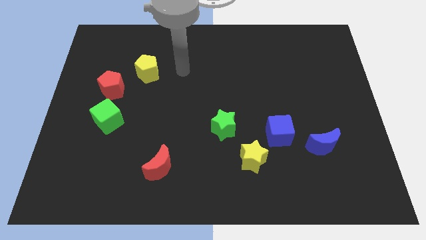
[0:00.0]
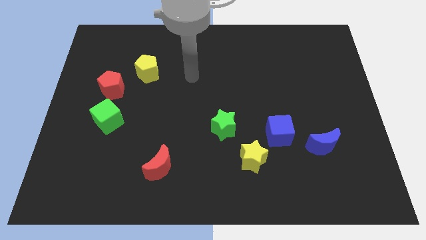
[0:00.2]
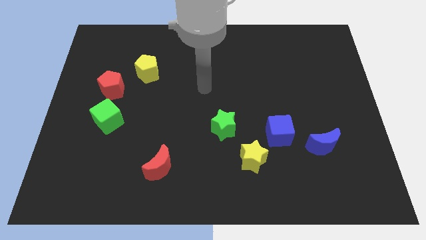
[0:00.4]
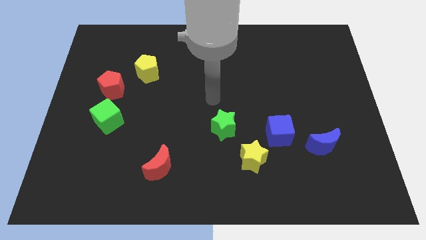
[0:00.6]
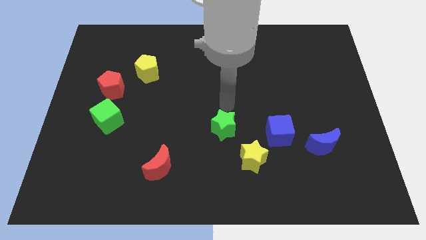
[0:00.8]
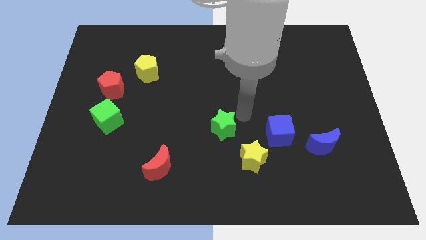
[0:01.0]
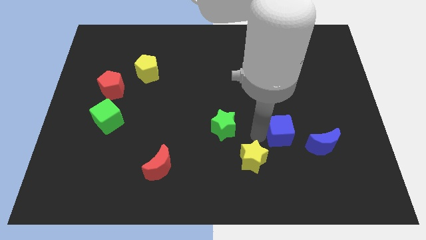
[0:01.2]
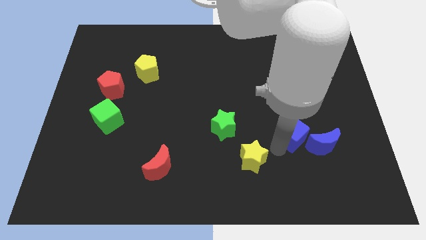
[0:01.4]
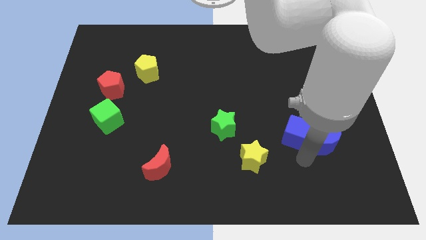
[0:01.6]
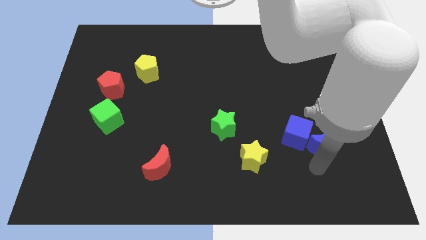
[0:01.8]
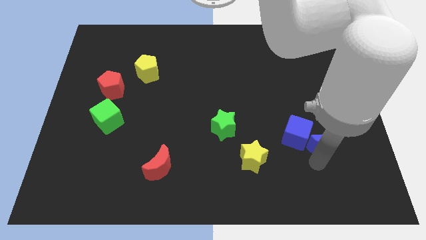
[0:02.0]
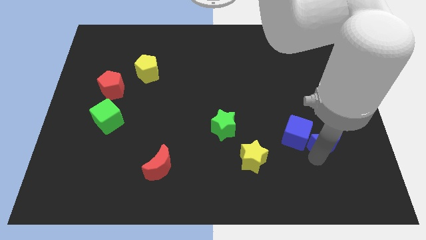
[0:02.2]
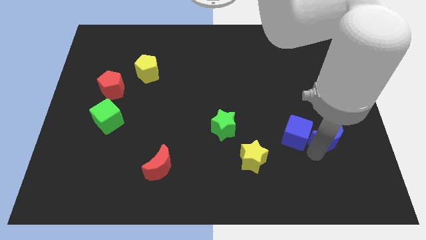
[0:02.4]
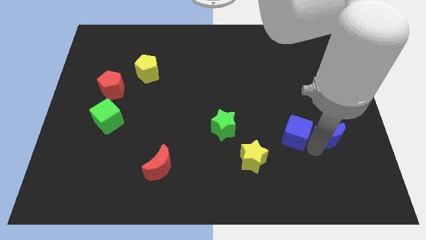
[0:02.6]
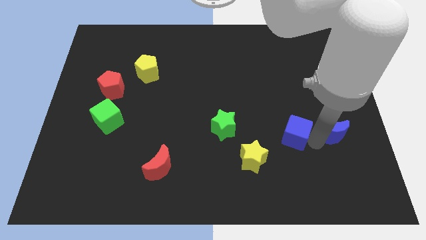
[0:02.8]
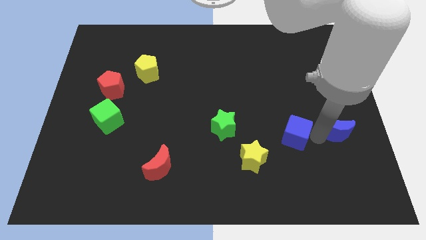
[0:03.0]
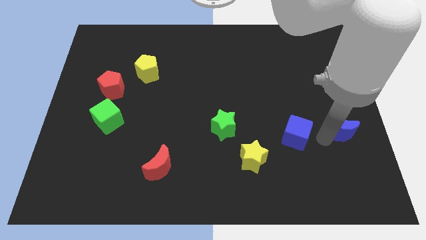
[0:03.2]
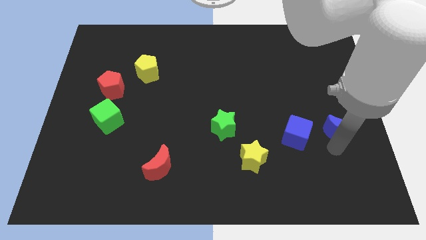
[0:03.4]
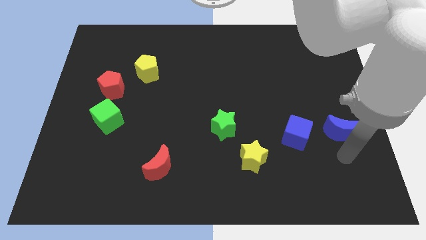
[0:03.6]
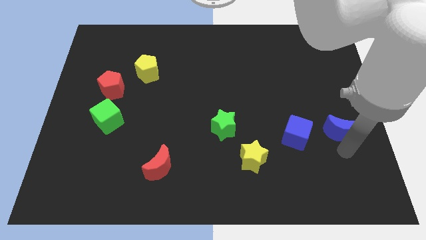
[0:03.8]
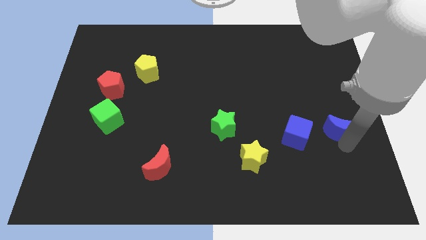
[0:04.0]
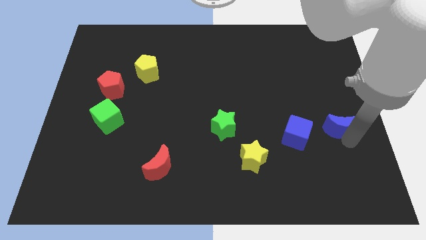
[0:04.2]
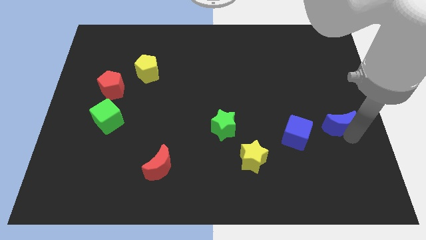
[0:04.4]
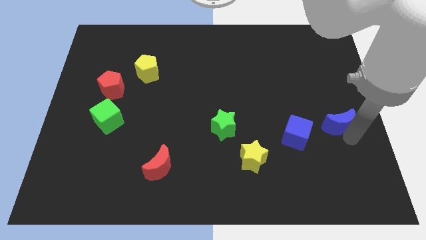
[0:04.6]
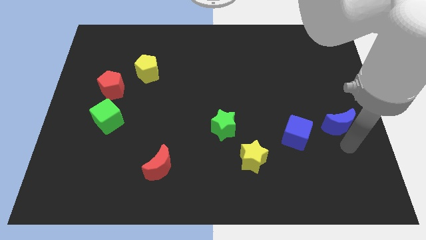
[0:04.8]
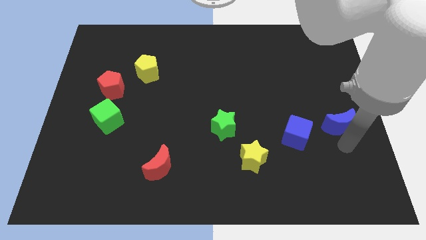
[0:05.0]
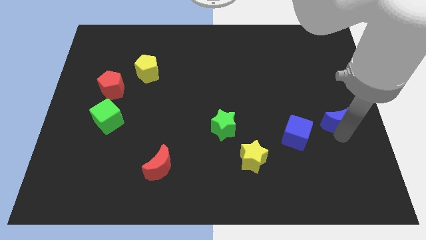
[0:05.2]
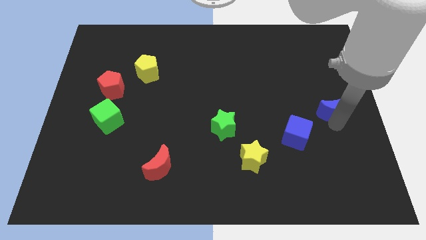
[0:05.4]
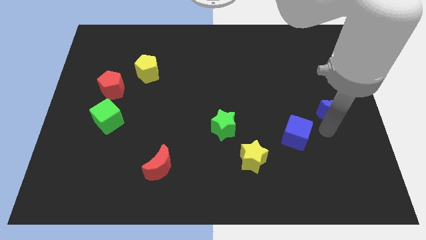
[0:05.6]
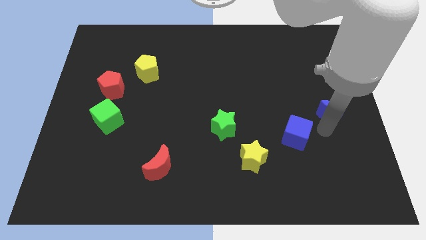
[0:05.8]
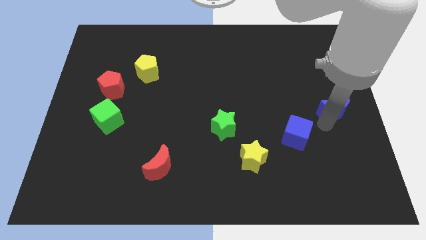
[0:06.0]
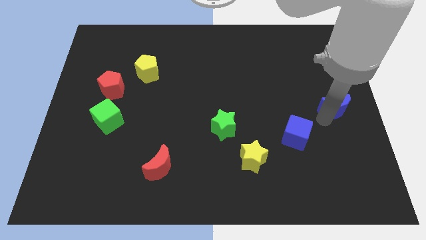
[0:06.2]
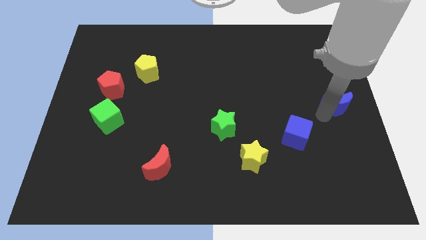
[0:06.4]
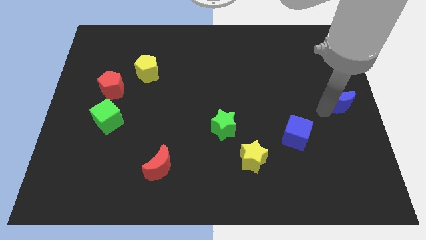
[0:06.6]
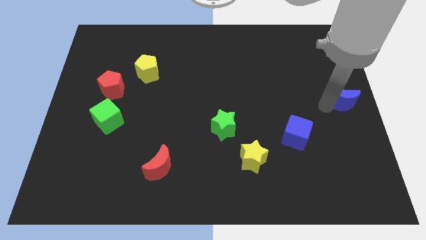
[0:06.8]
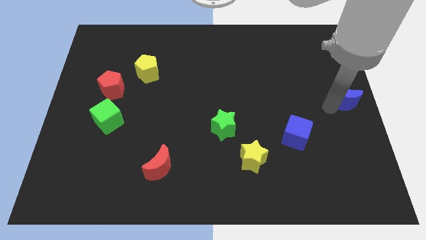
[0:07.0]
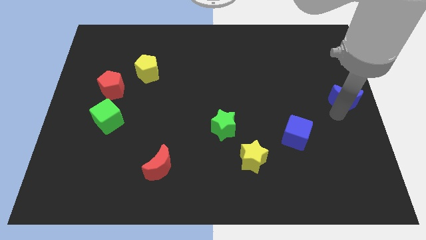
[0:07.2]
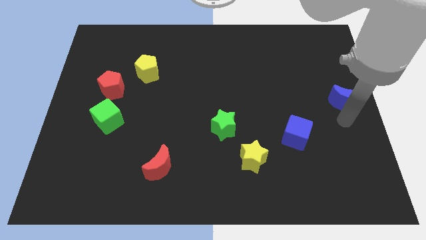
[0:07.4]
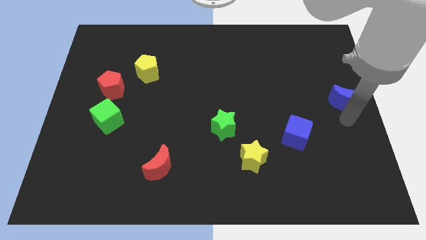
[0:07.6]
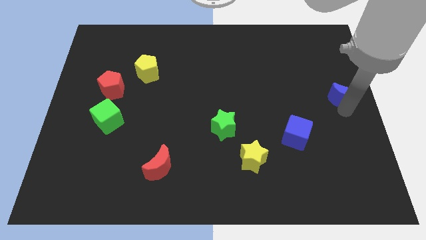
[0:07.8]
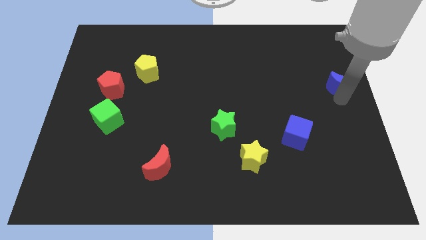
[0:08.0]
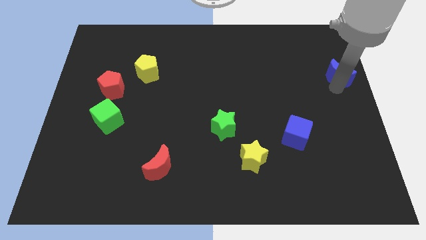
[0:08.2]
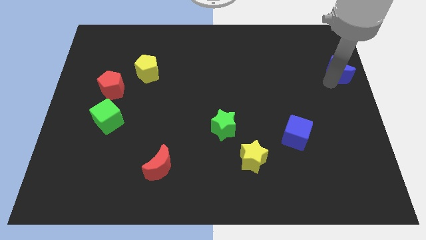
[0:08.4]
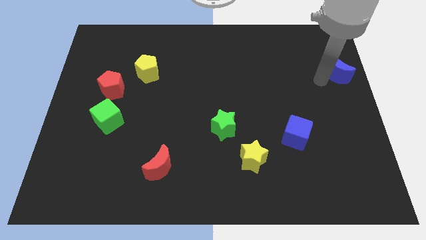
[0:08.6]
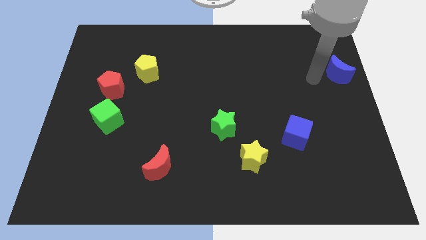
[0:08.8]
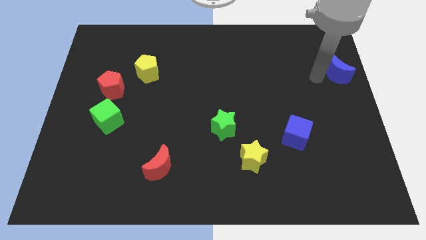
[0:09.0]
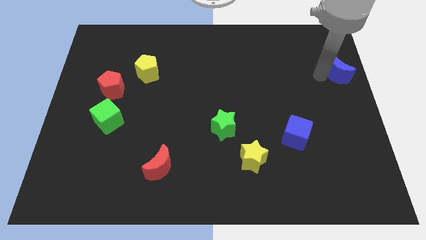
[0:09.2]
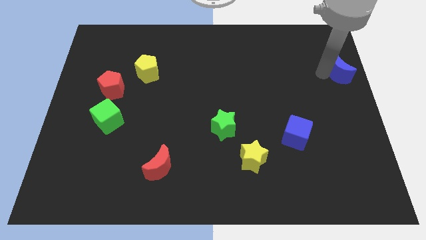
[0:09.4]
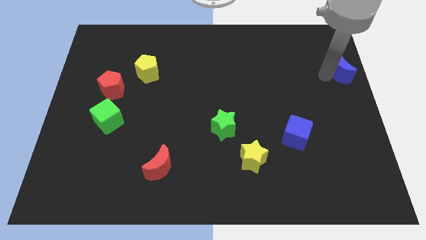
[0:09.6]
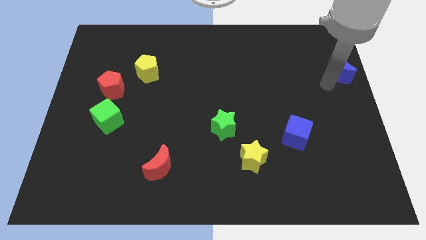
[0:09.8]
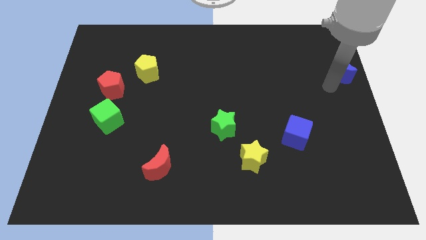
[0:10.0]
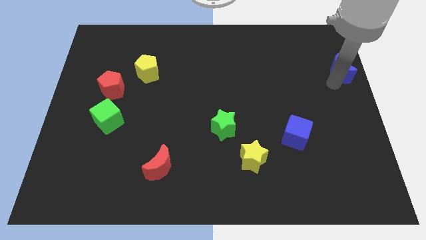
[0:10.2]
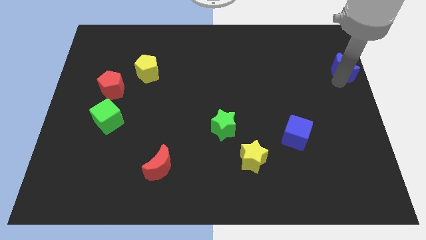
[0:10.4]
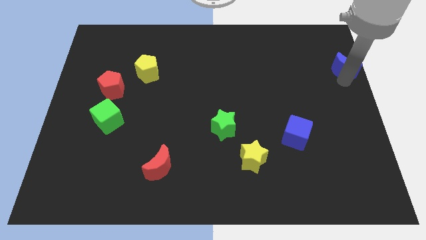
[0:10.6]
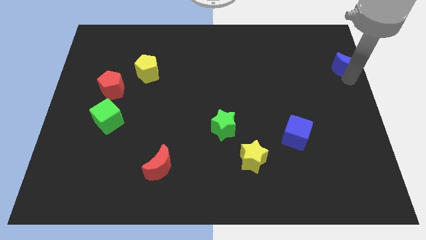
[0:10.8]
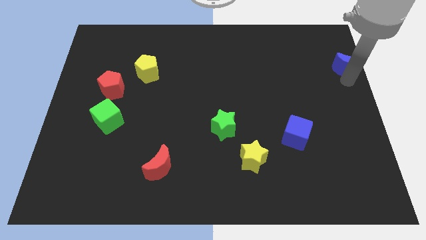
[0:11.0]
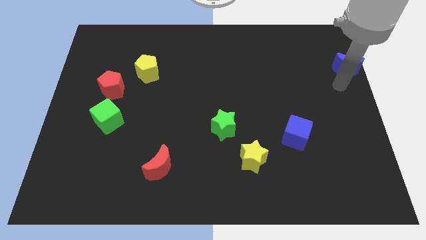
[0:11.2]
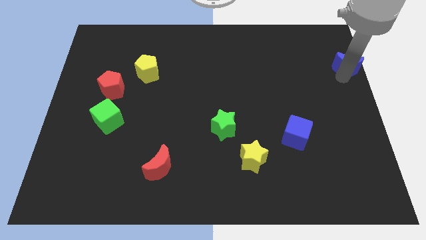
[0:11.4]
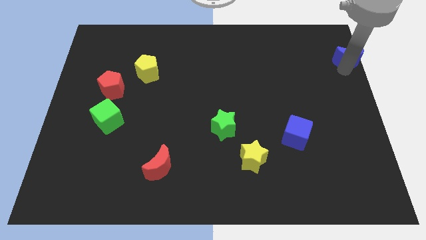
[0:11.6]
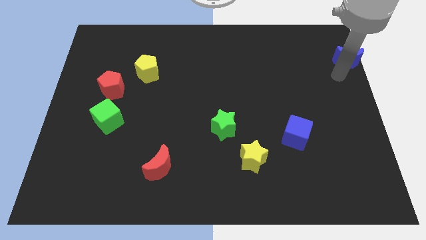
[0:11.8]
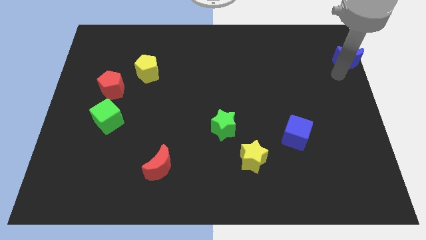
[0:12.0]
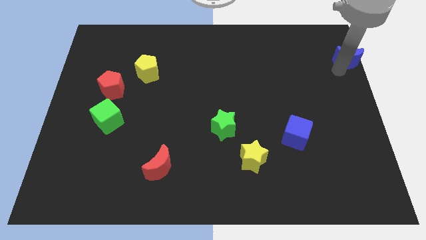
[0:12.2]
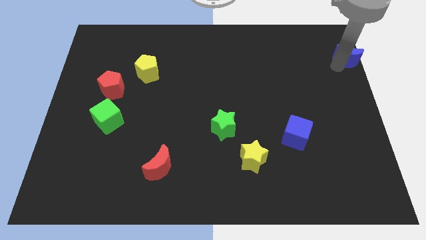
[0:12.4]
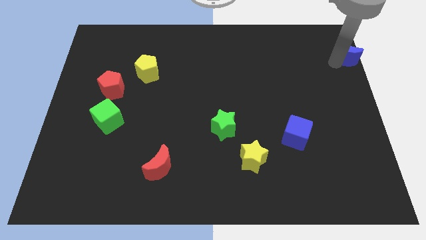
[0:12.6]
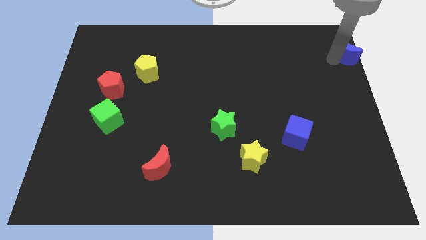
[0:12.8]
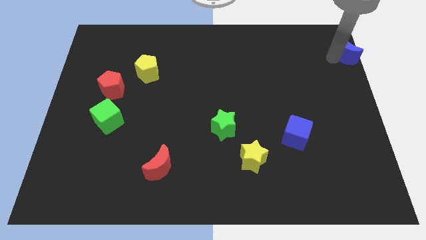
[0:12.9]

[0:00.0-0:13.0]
move the blue moon to the top right of the board

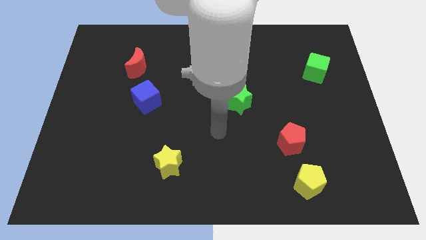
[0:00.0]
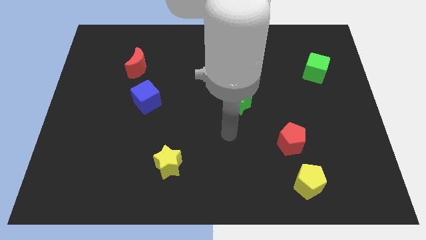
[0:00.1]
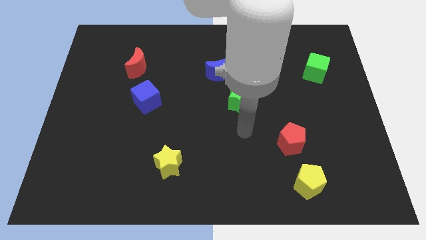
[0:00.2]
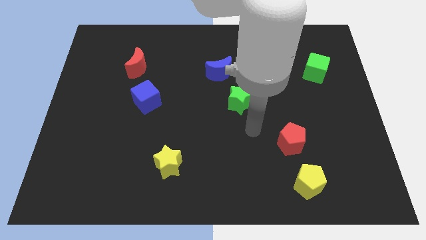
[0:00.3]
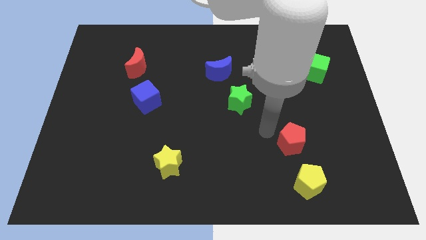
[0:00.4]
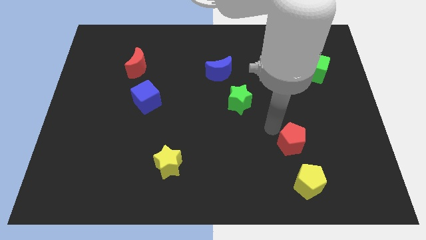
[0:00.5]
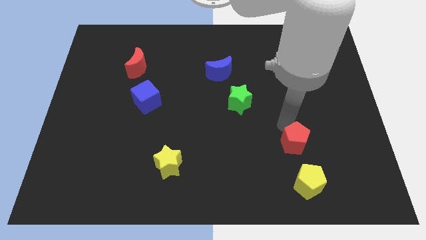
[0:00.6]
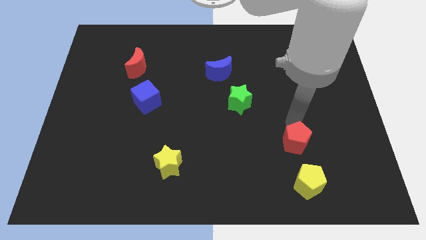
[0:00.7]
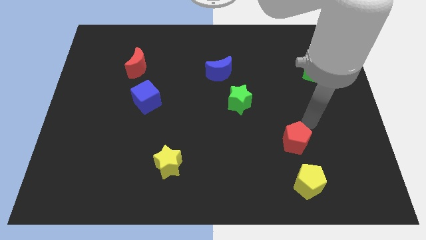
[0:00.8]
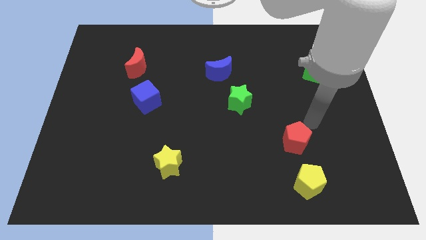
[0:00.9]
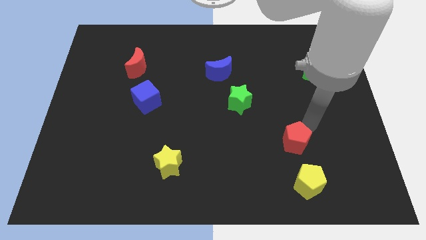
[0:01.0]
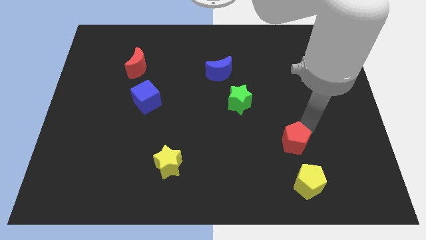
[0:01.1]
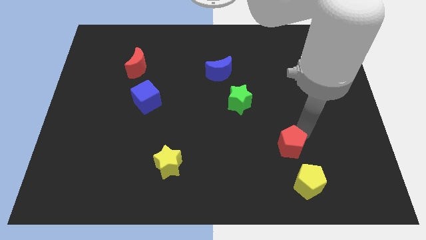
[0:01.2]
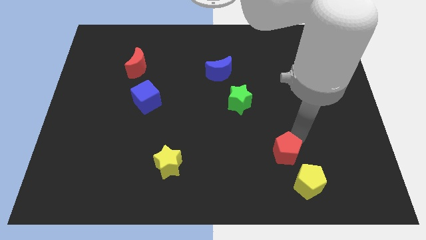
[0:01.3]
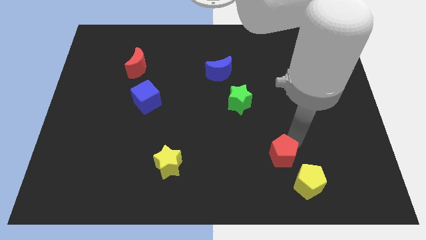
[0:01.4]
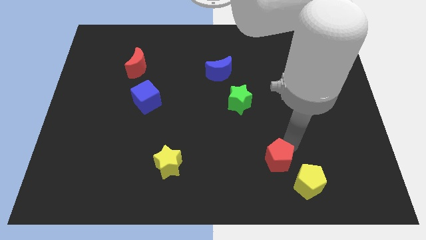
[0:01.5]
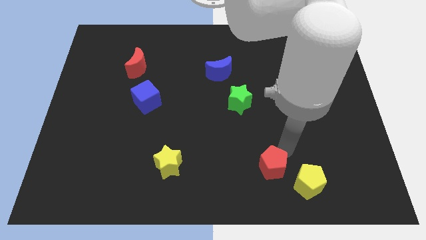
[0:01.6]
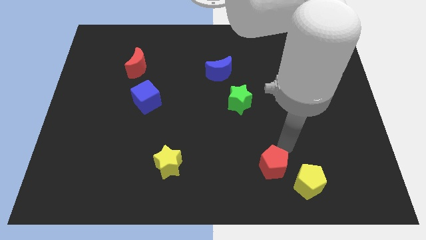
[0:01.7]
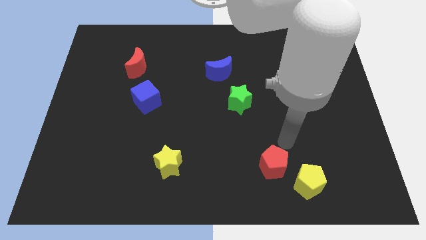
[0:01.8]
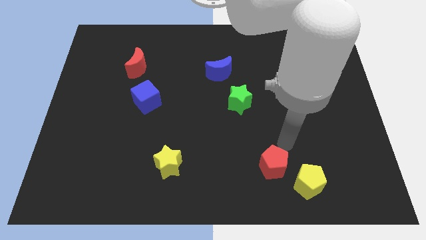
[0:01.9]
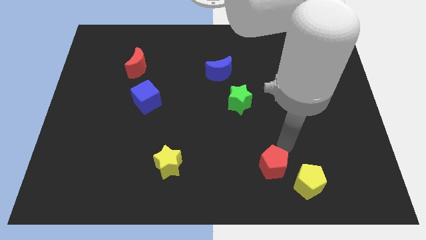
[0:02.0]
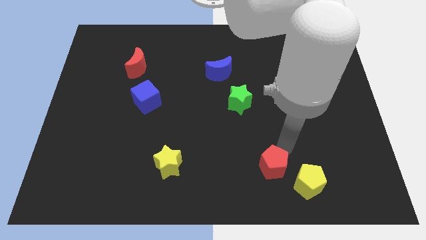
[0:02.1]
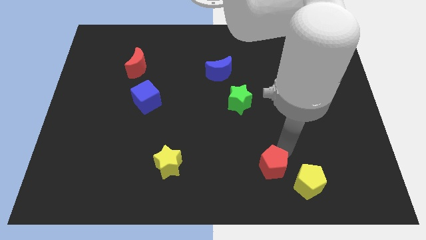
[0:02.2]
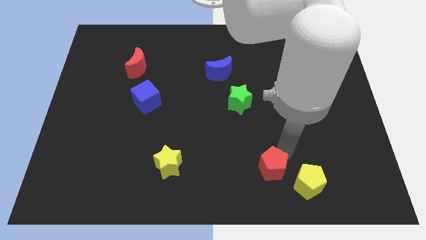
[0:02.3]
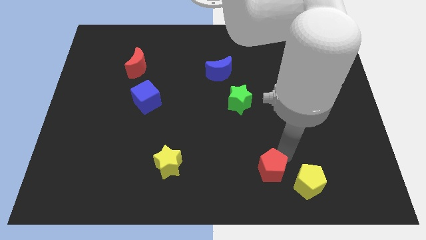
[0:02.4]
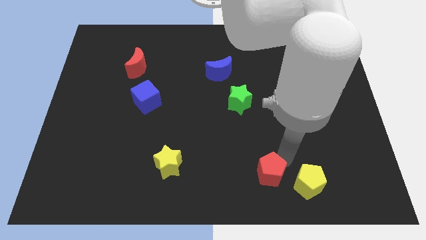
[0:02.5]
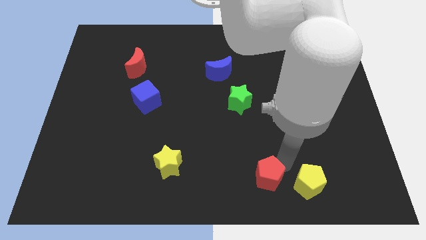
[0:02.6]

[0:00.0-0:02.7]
move the red pentagon to the bottom side
